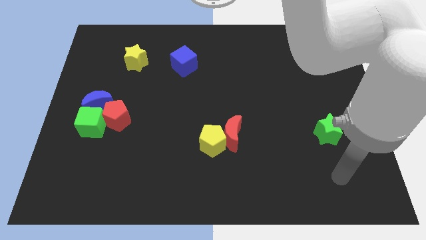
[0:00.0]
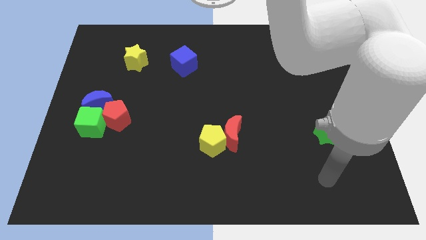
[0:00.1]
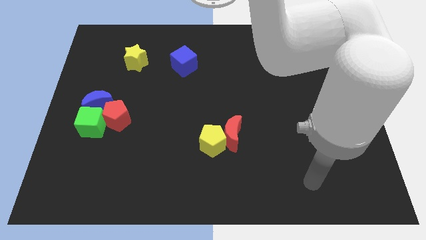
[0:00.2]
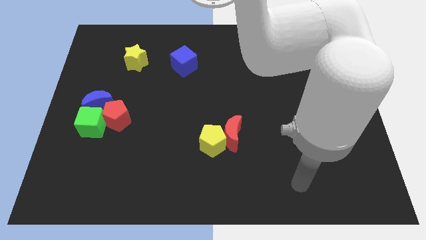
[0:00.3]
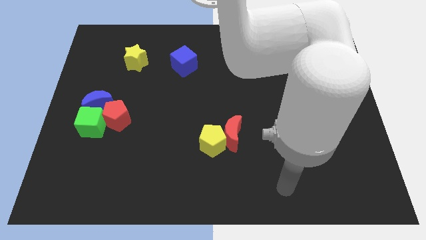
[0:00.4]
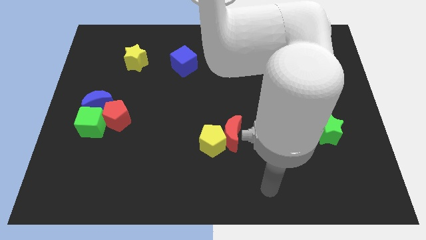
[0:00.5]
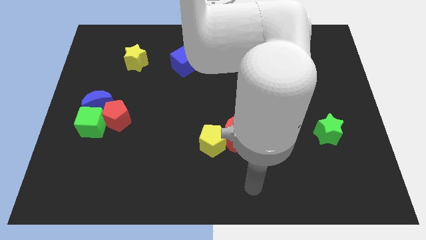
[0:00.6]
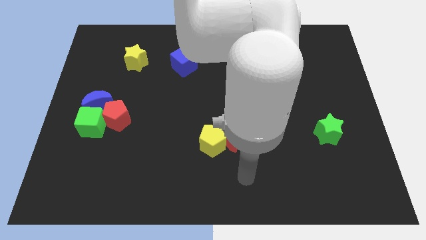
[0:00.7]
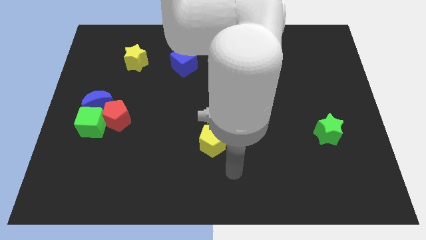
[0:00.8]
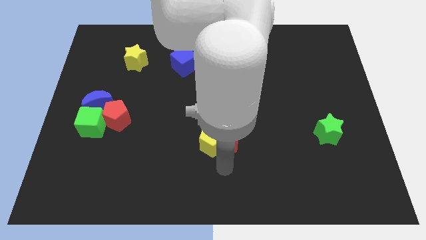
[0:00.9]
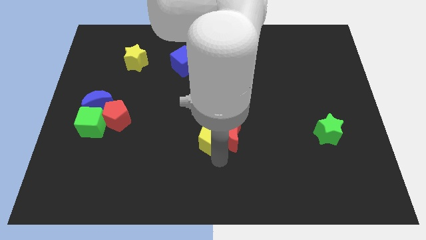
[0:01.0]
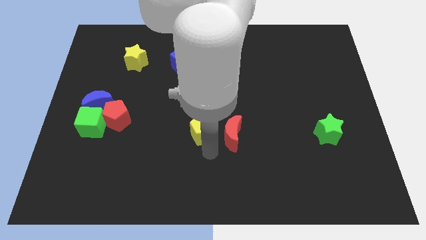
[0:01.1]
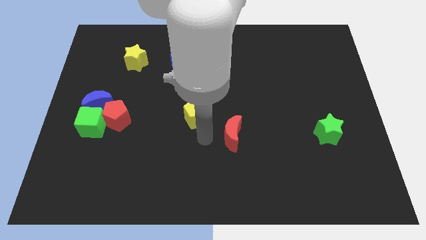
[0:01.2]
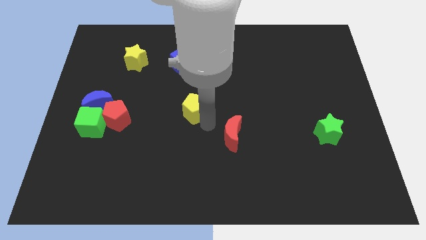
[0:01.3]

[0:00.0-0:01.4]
move the red moon away from the yellow pentagon

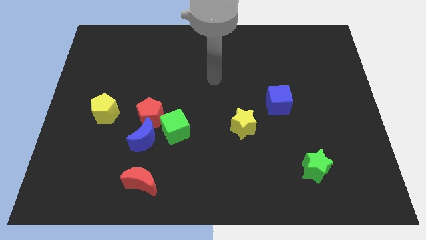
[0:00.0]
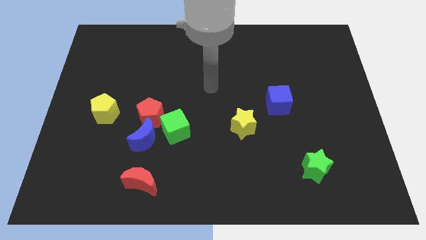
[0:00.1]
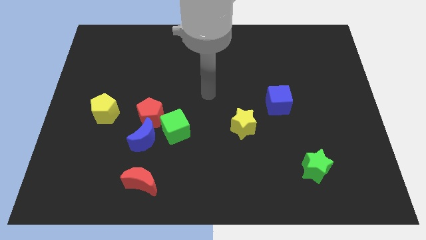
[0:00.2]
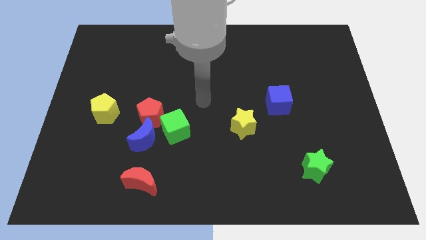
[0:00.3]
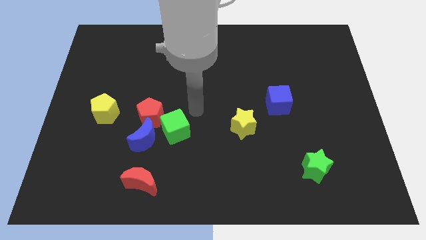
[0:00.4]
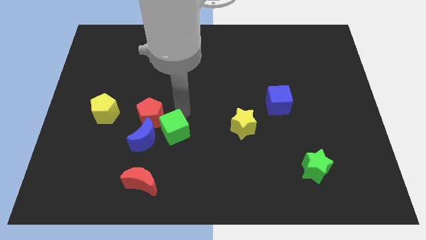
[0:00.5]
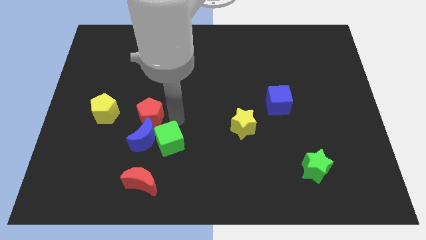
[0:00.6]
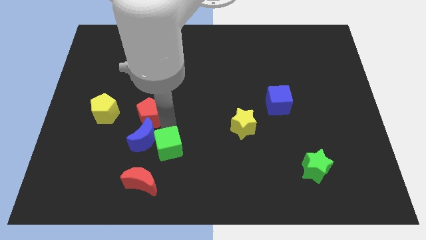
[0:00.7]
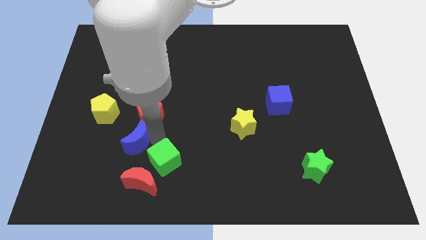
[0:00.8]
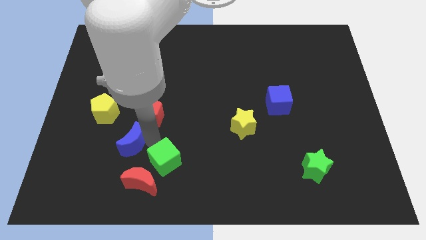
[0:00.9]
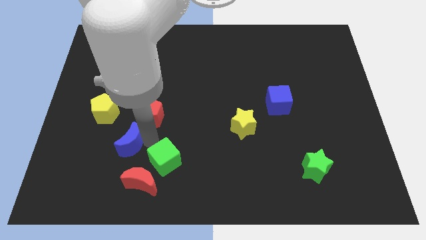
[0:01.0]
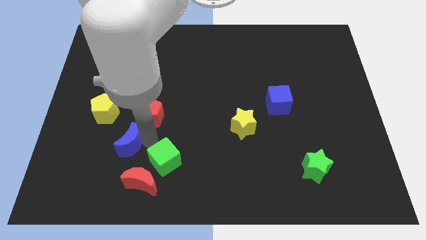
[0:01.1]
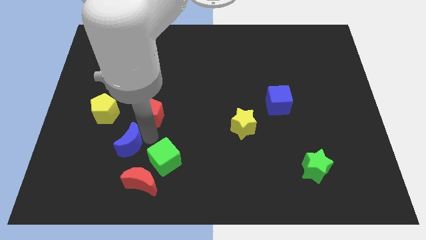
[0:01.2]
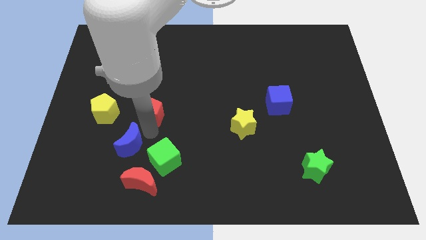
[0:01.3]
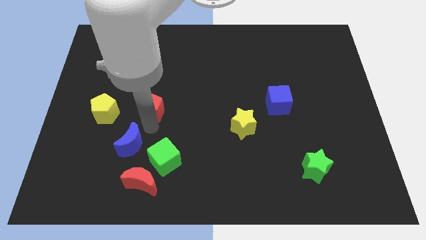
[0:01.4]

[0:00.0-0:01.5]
pull the red pentagon apart from the blue moon and green cube

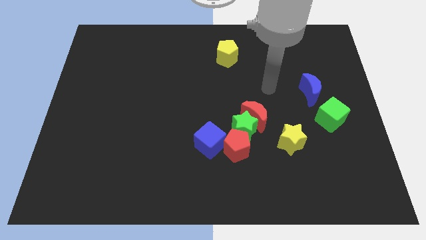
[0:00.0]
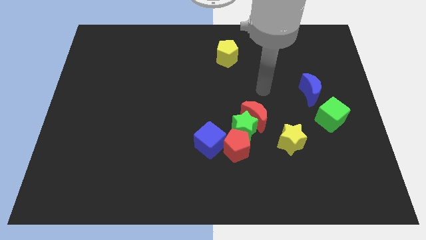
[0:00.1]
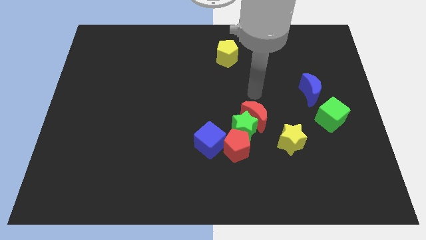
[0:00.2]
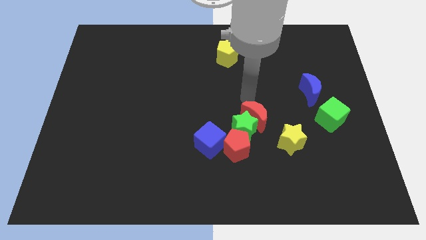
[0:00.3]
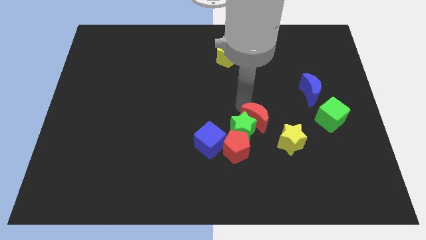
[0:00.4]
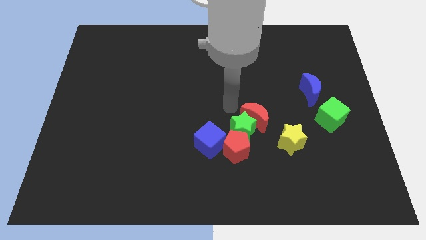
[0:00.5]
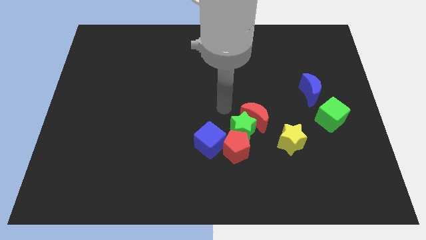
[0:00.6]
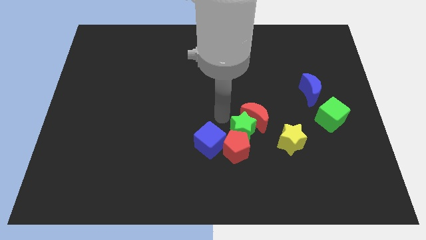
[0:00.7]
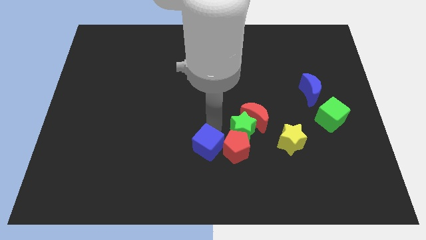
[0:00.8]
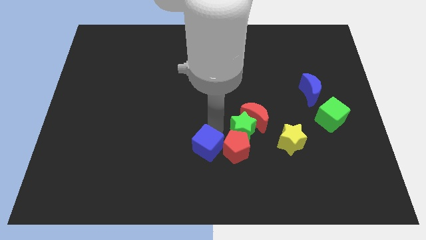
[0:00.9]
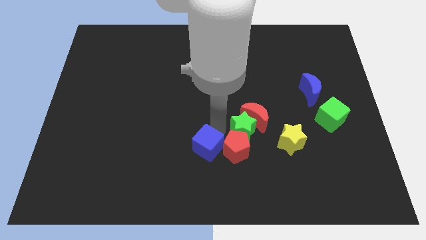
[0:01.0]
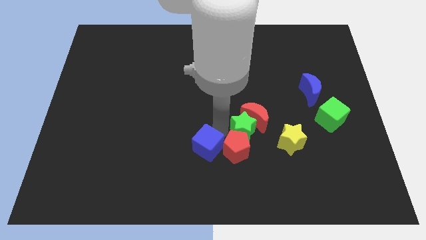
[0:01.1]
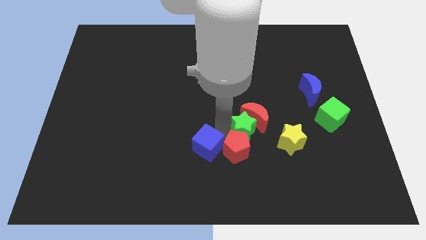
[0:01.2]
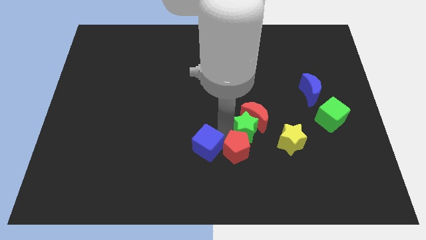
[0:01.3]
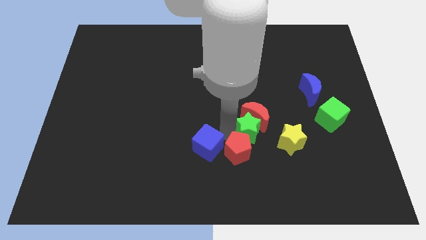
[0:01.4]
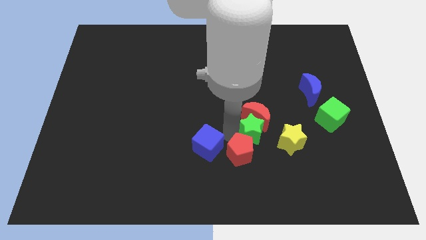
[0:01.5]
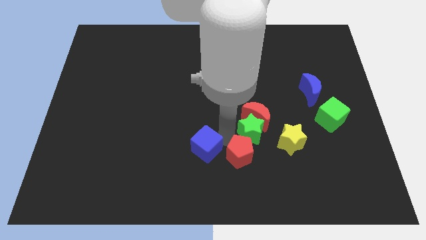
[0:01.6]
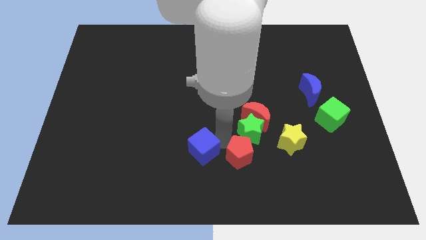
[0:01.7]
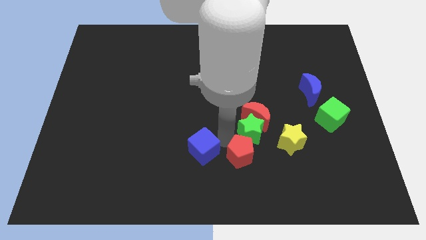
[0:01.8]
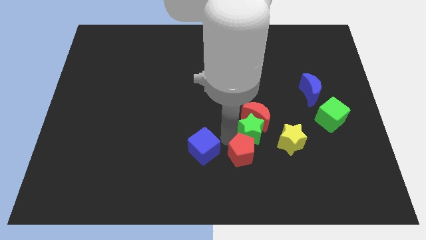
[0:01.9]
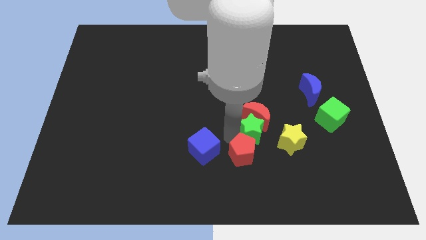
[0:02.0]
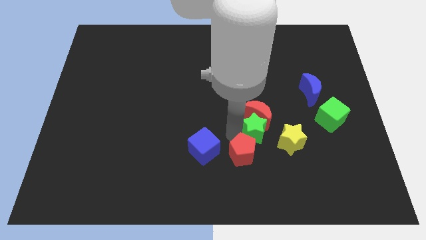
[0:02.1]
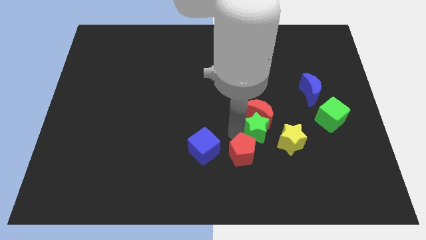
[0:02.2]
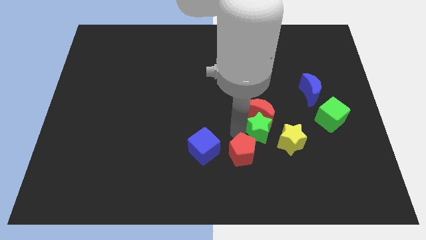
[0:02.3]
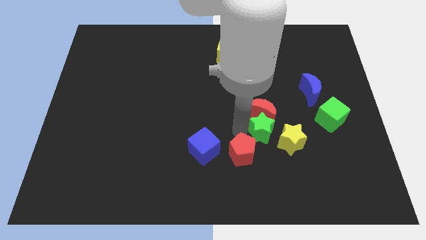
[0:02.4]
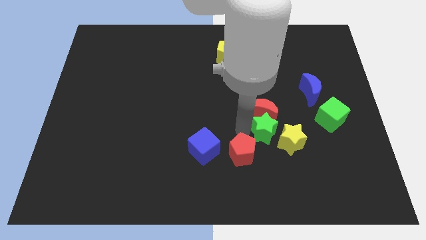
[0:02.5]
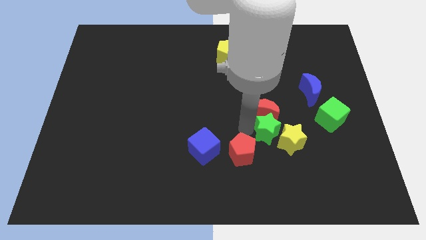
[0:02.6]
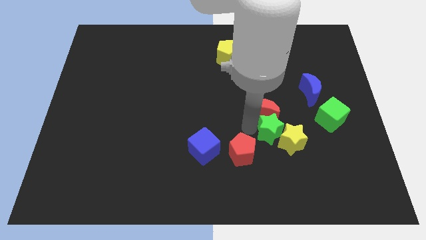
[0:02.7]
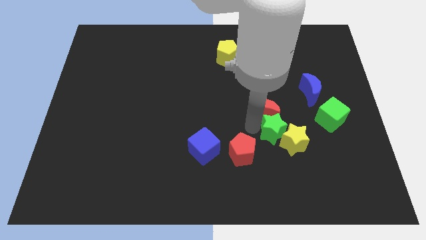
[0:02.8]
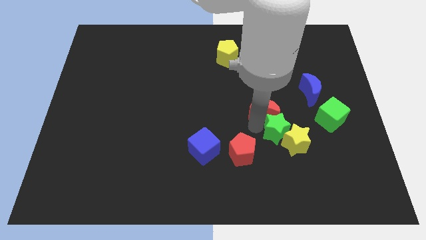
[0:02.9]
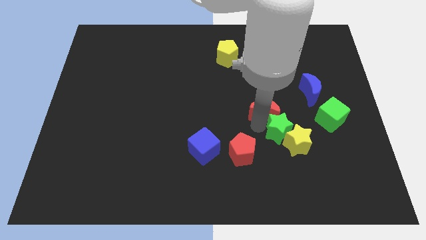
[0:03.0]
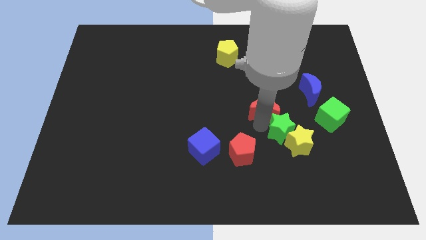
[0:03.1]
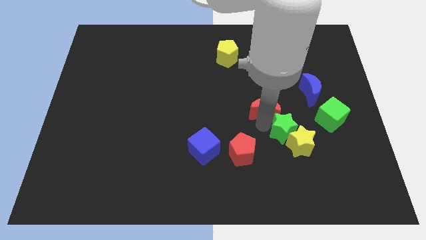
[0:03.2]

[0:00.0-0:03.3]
move the green star away from the red moon, red pentagon, and blue cube

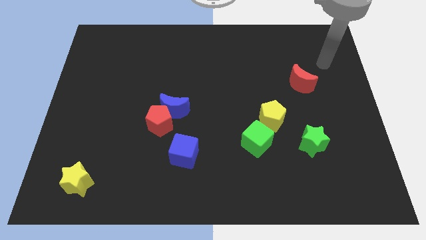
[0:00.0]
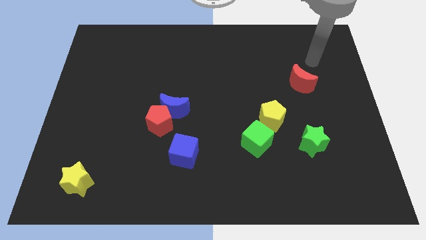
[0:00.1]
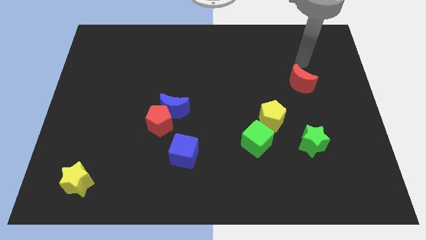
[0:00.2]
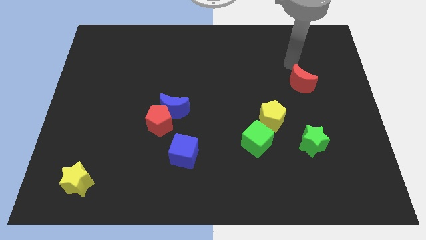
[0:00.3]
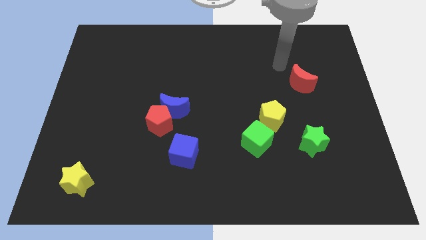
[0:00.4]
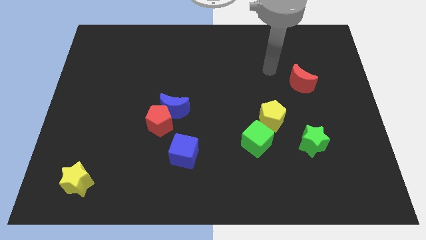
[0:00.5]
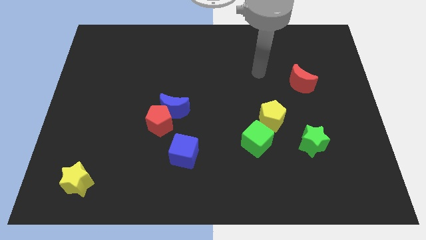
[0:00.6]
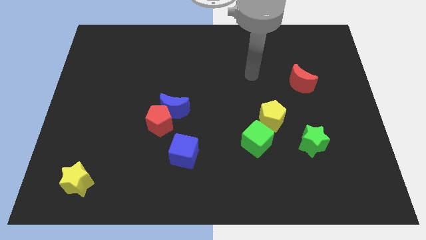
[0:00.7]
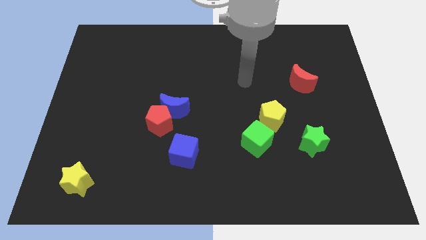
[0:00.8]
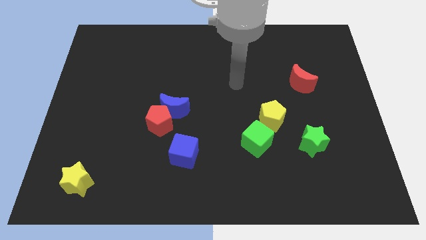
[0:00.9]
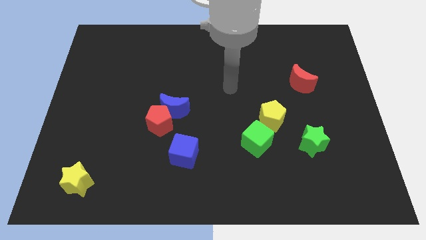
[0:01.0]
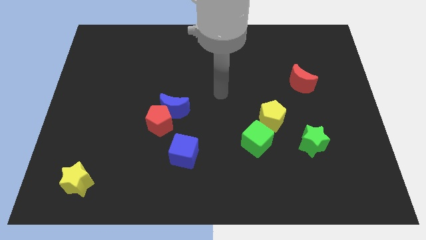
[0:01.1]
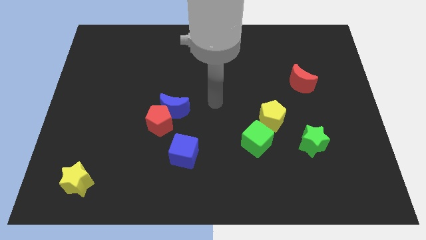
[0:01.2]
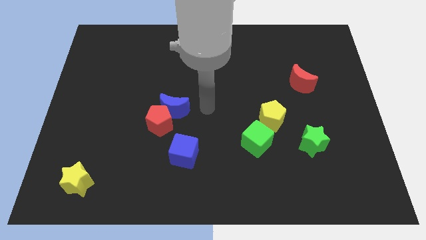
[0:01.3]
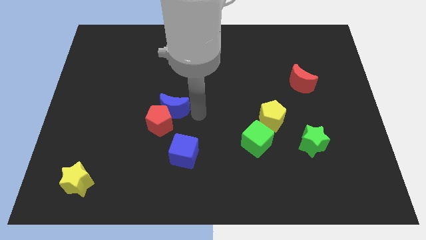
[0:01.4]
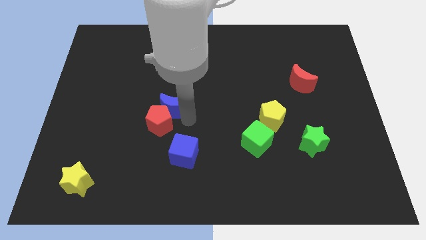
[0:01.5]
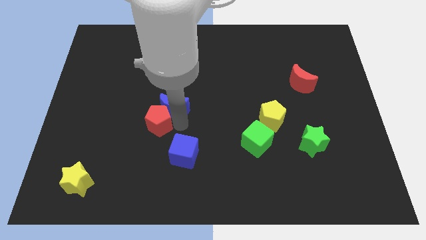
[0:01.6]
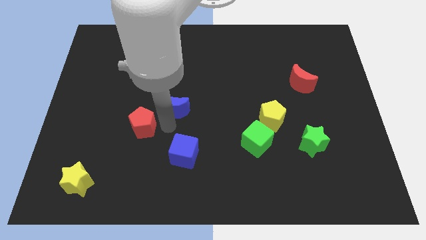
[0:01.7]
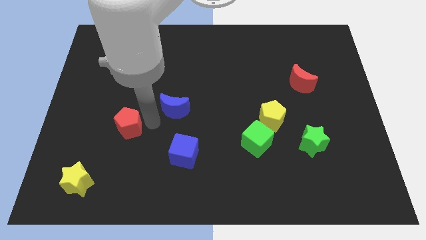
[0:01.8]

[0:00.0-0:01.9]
move the blue moon away from the red pentagon

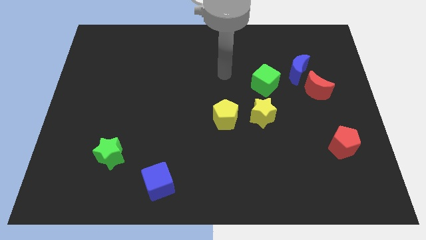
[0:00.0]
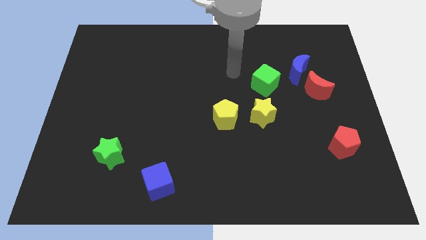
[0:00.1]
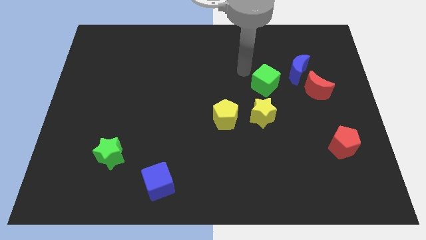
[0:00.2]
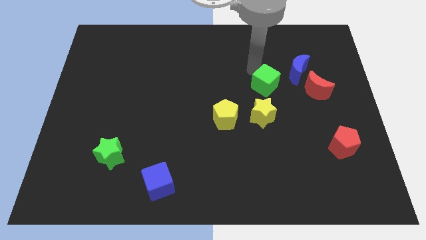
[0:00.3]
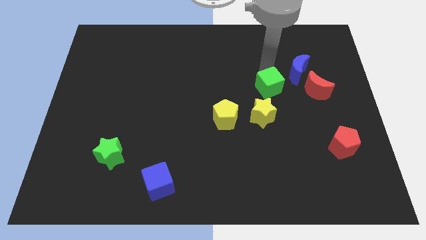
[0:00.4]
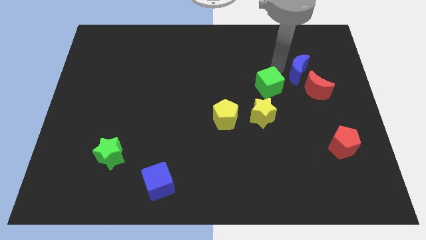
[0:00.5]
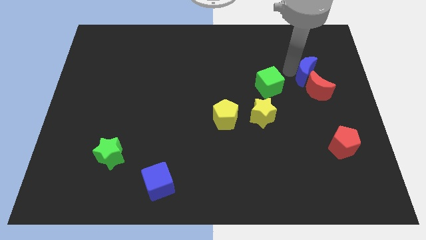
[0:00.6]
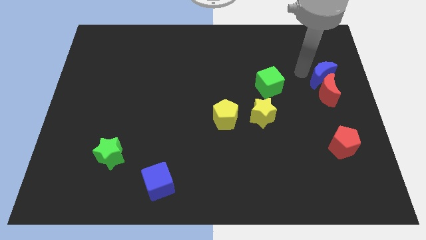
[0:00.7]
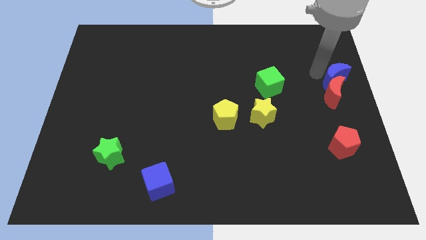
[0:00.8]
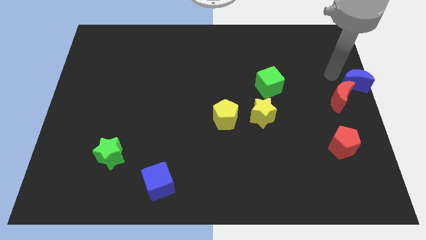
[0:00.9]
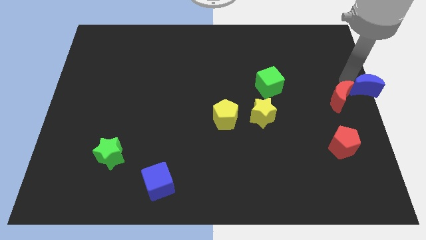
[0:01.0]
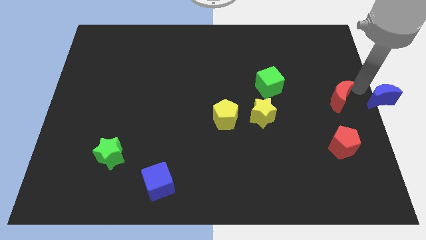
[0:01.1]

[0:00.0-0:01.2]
pull the red moon apart from the blue moon
